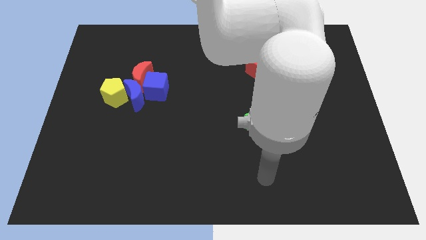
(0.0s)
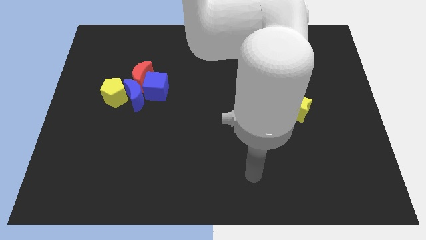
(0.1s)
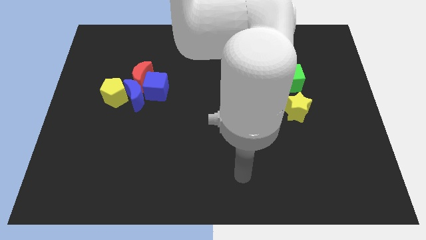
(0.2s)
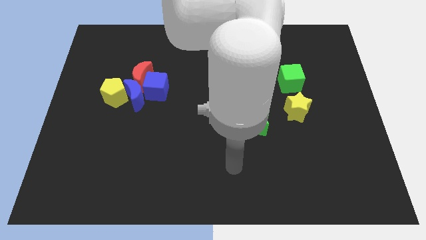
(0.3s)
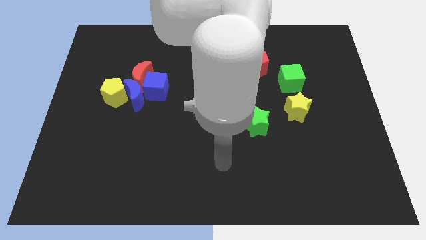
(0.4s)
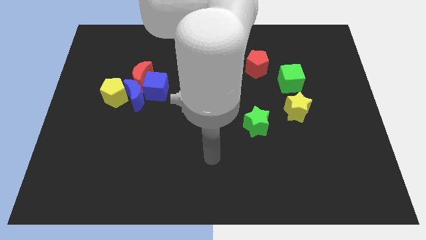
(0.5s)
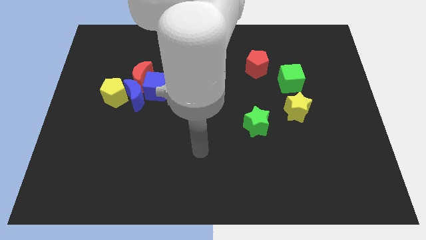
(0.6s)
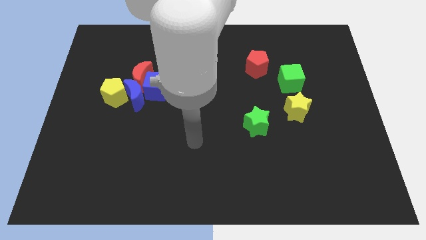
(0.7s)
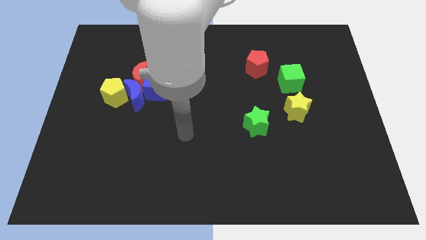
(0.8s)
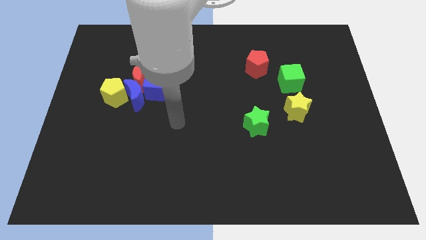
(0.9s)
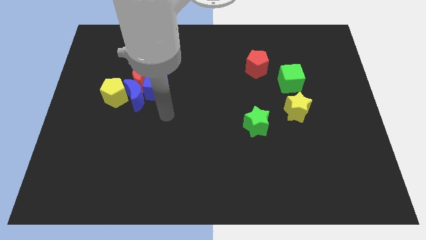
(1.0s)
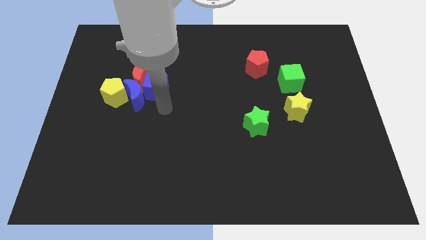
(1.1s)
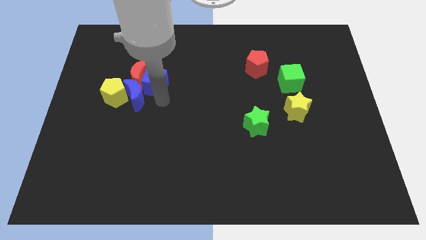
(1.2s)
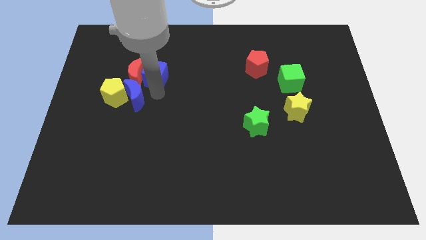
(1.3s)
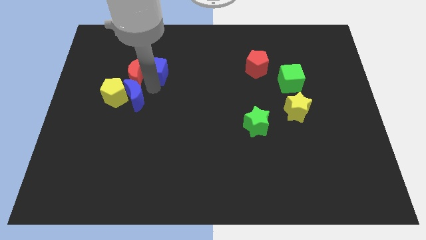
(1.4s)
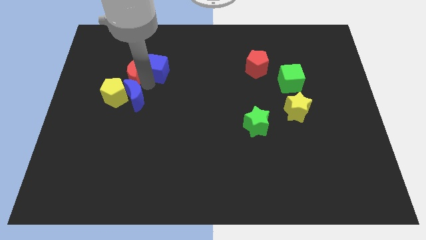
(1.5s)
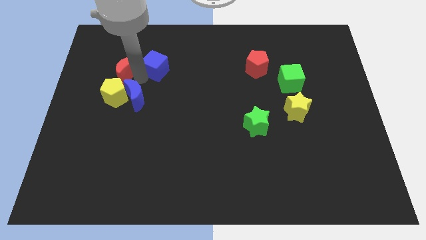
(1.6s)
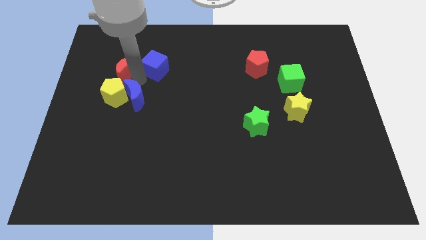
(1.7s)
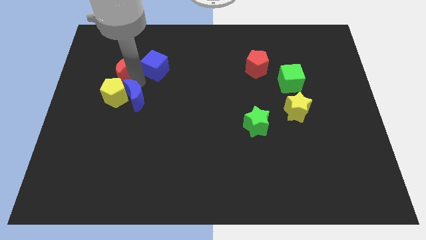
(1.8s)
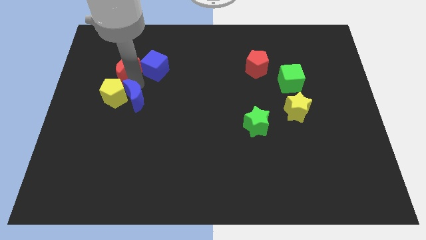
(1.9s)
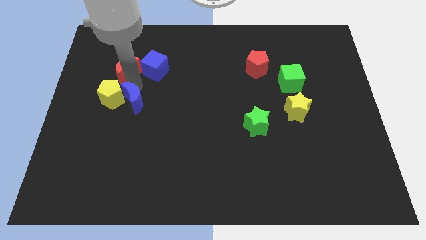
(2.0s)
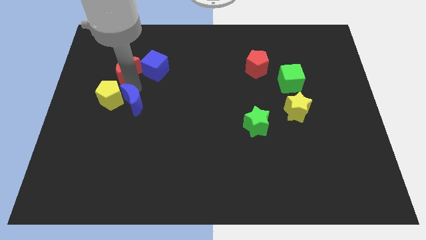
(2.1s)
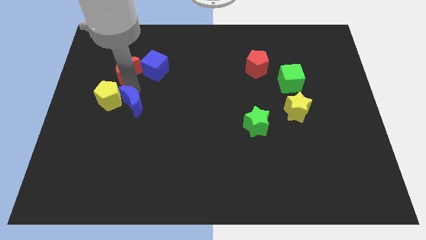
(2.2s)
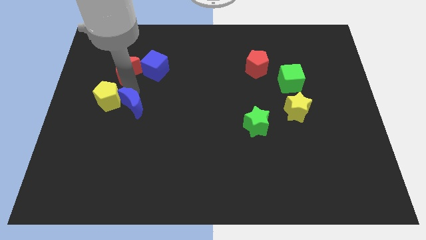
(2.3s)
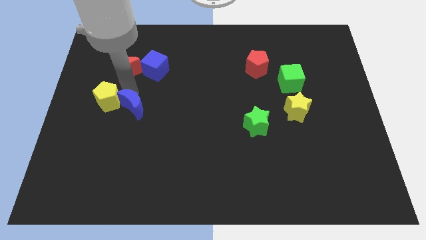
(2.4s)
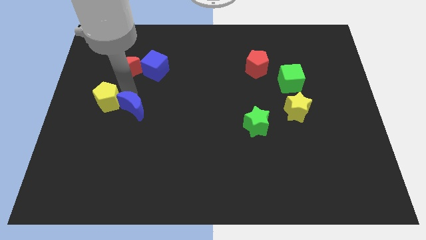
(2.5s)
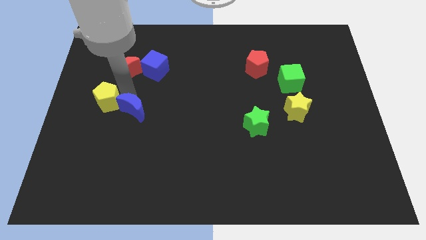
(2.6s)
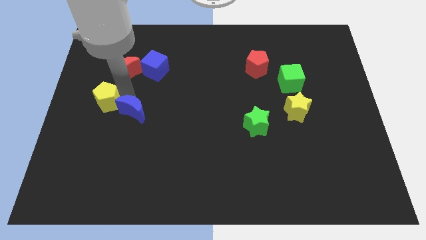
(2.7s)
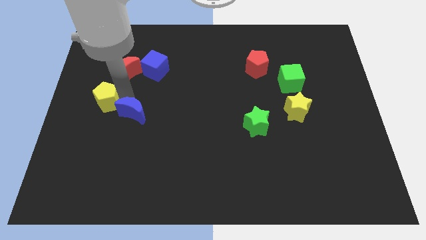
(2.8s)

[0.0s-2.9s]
pull the blue moon apart from the clump

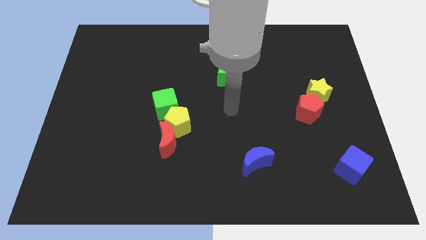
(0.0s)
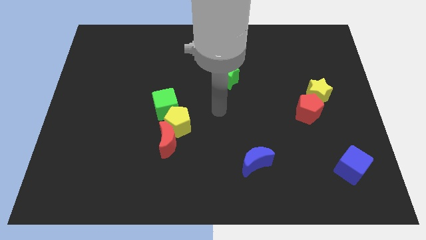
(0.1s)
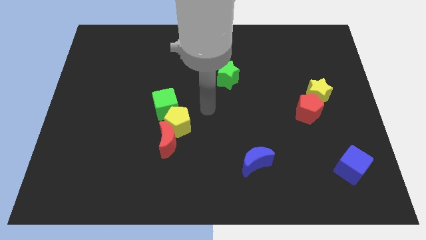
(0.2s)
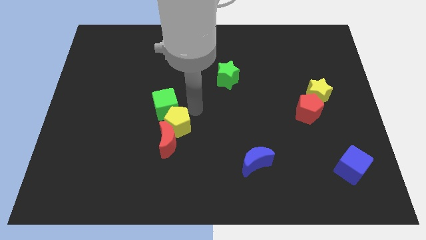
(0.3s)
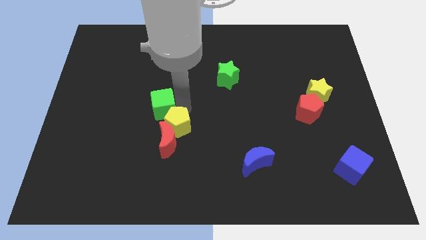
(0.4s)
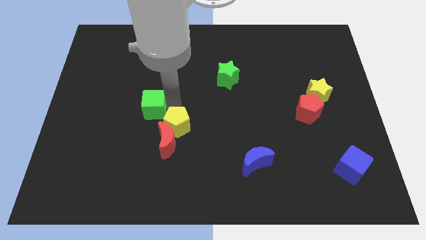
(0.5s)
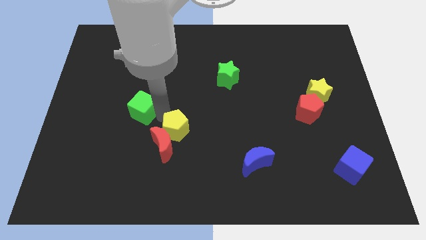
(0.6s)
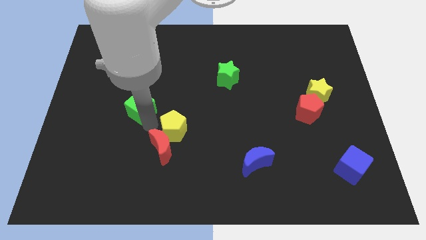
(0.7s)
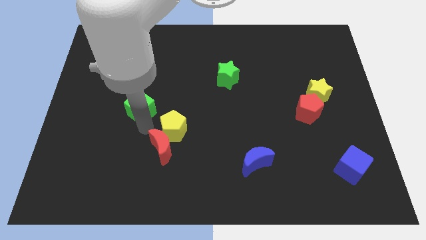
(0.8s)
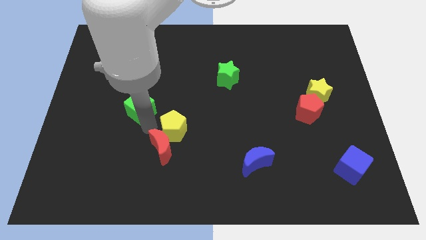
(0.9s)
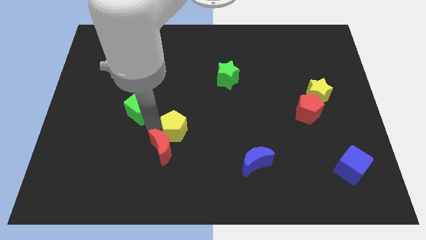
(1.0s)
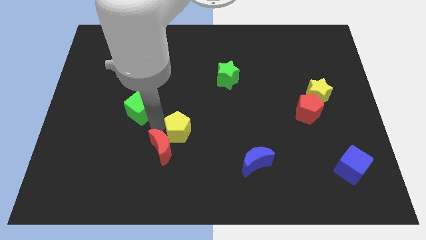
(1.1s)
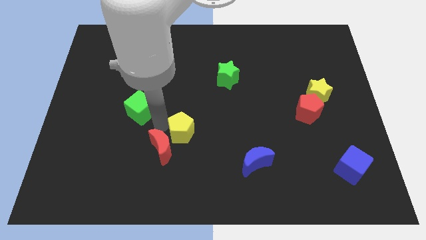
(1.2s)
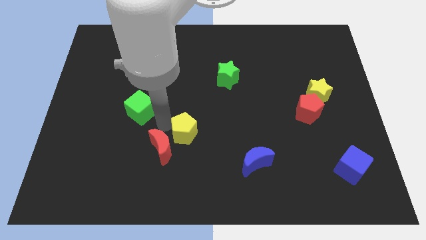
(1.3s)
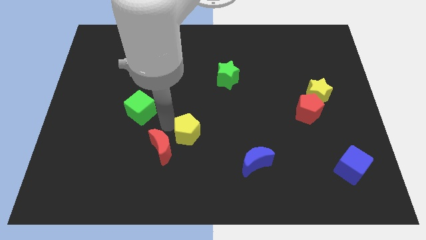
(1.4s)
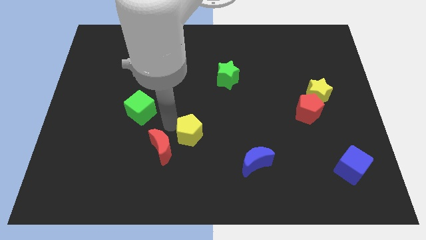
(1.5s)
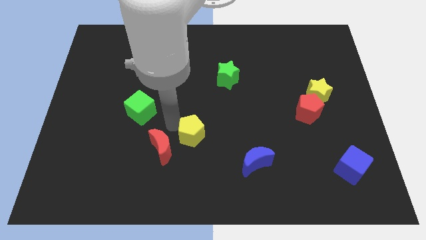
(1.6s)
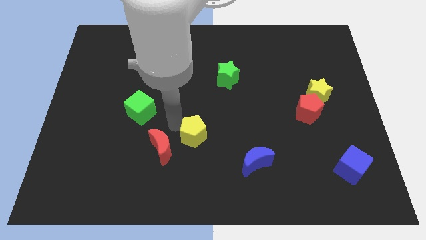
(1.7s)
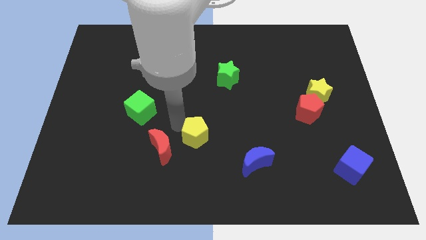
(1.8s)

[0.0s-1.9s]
separate the yellow pentagon from the red moon and green cube

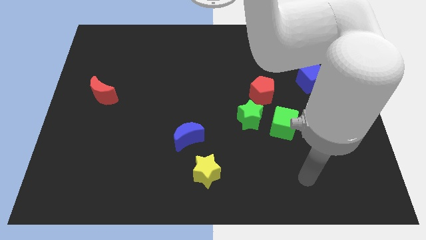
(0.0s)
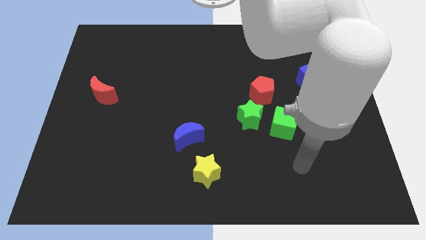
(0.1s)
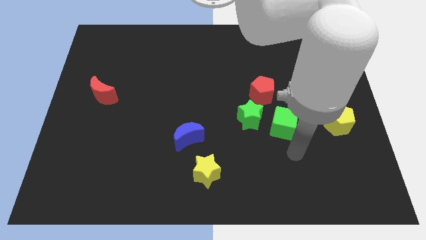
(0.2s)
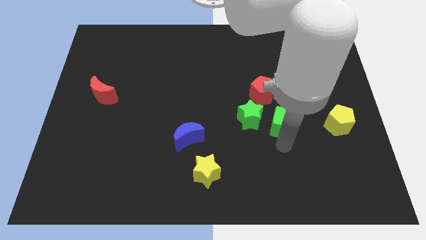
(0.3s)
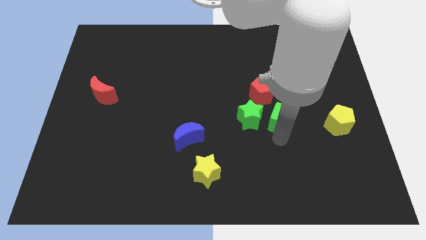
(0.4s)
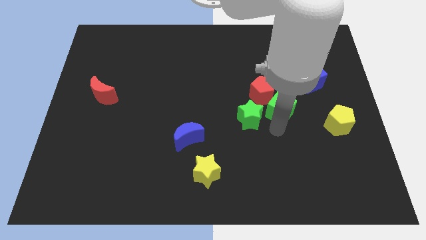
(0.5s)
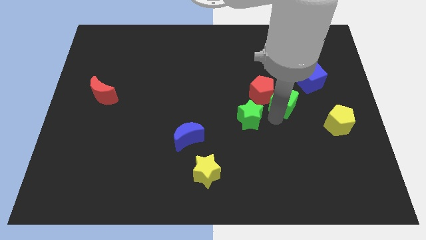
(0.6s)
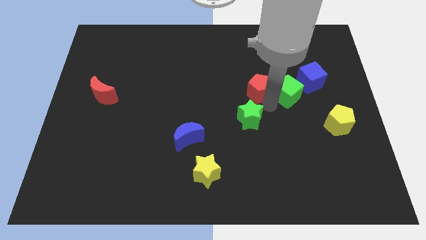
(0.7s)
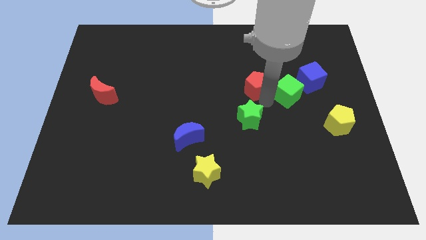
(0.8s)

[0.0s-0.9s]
move the green star away from the red pentagon and green cube

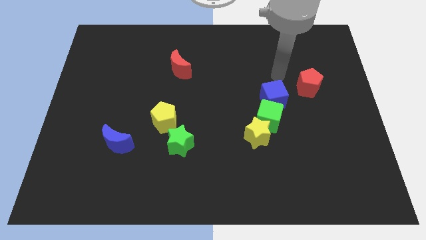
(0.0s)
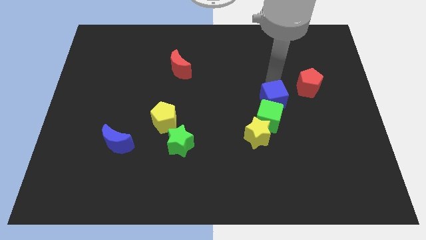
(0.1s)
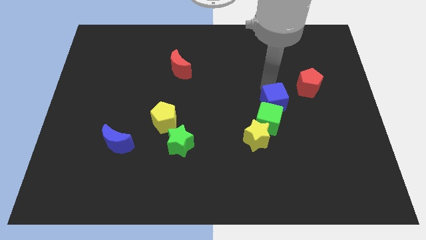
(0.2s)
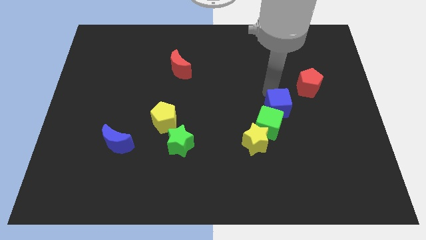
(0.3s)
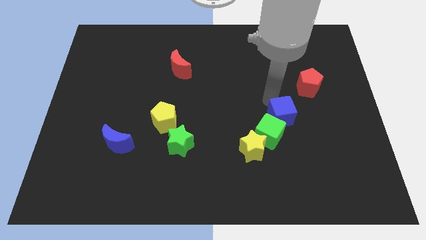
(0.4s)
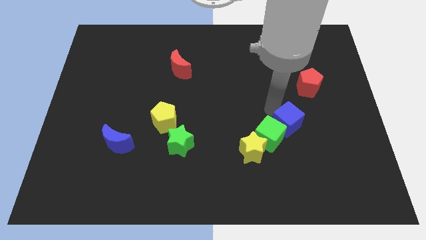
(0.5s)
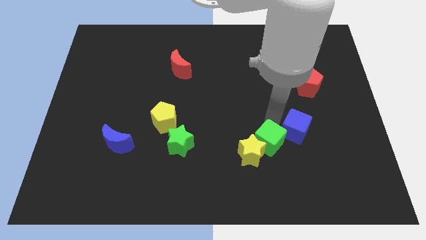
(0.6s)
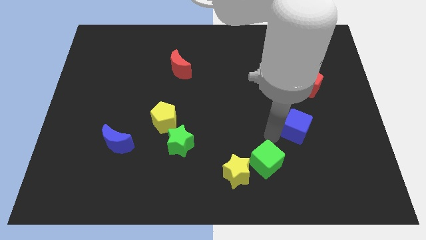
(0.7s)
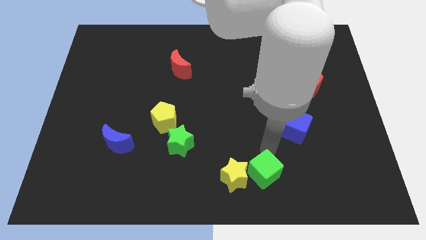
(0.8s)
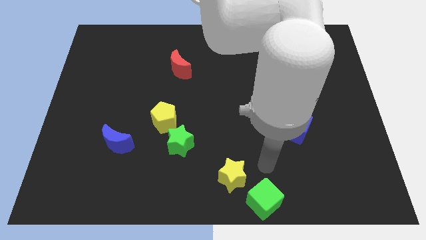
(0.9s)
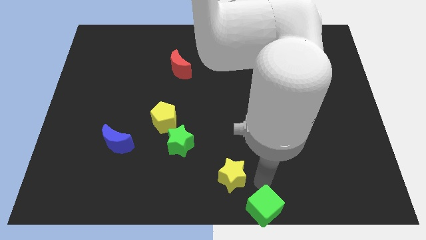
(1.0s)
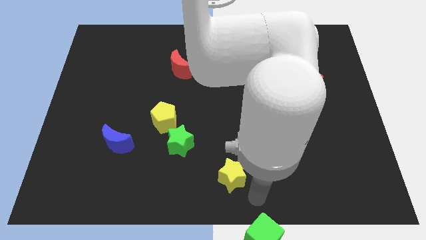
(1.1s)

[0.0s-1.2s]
pull the yellow star apart from the green cube

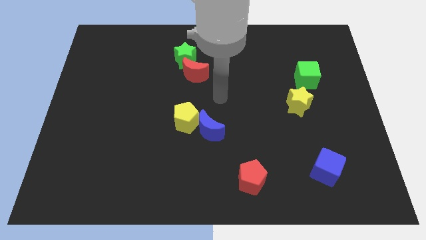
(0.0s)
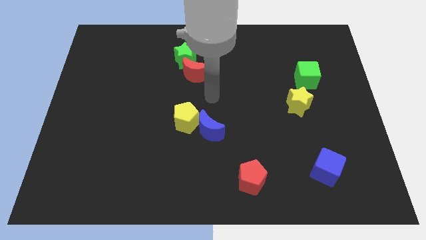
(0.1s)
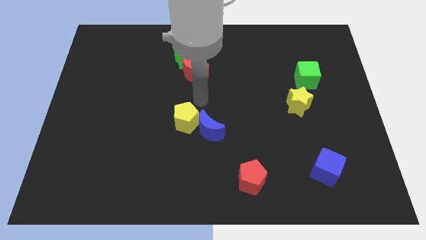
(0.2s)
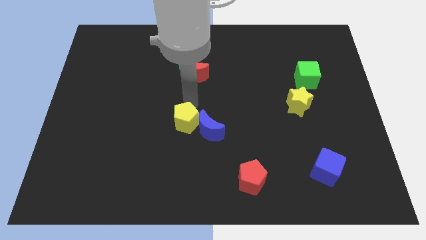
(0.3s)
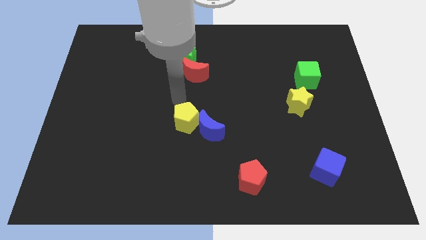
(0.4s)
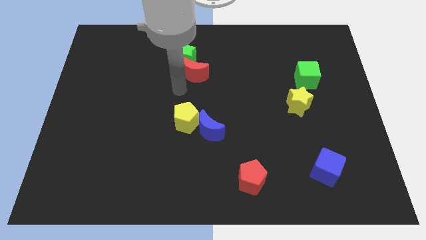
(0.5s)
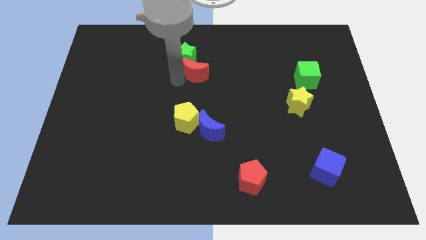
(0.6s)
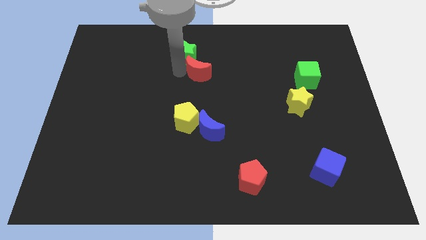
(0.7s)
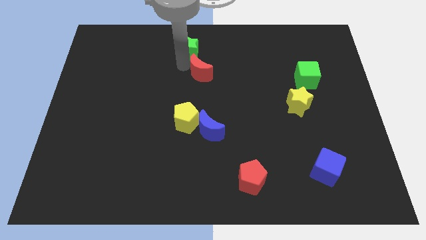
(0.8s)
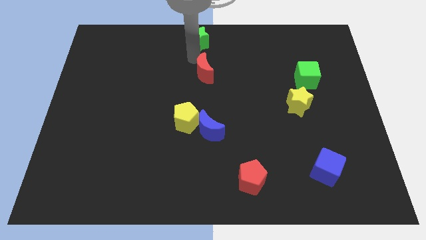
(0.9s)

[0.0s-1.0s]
separate the red moon from the green star

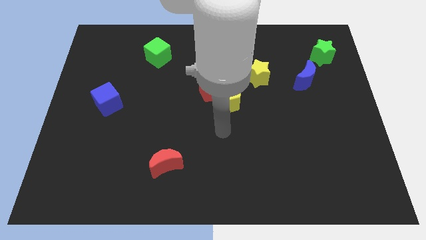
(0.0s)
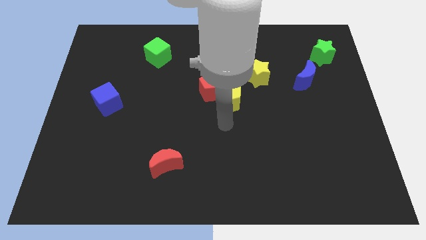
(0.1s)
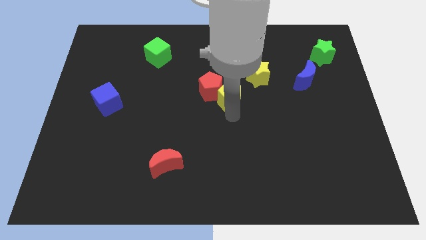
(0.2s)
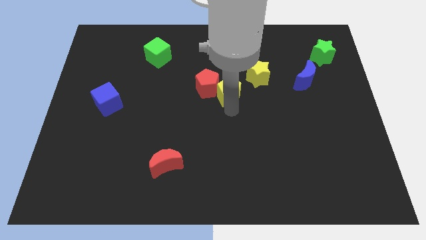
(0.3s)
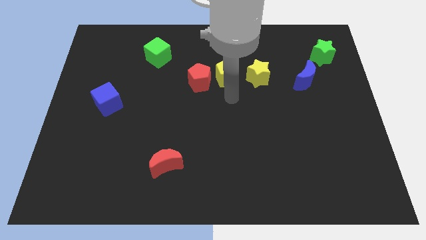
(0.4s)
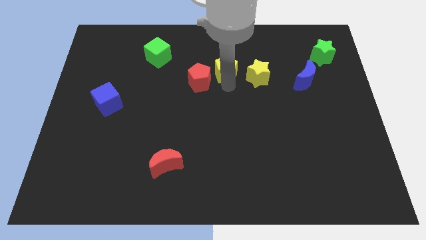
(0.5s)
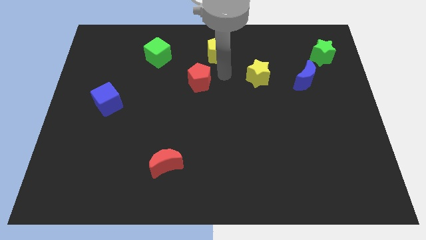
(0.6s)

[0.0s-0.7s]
separate the red pentagon from the yellow pentagon

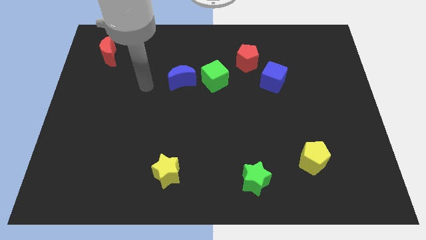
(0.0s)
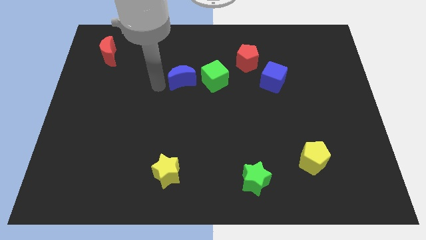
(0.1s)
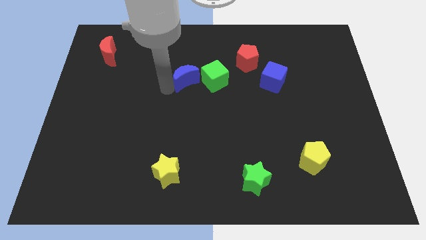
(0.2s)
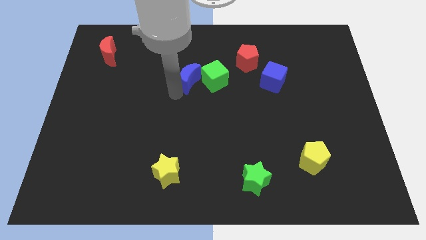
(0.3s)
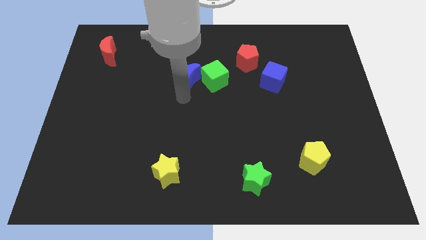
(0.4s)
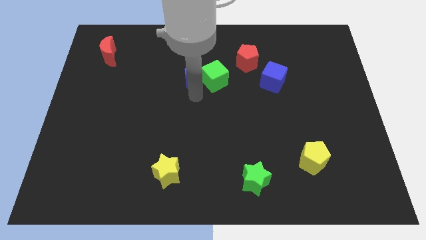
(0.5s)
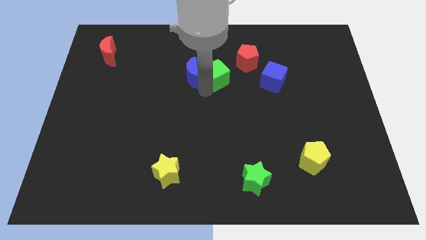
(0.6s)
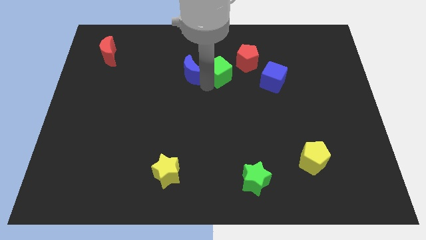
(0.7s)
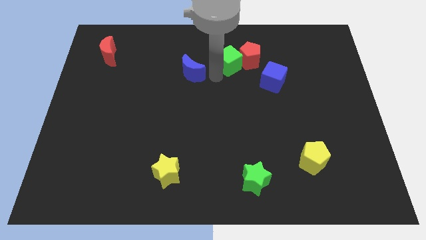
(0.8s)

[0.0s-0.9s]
separate the blue moon from the green cube

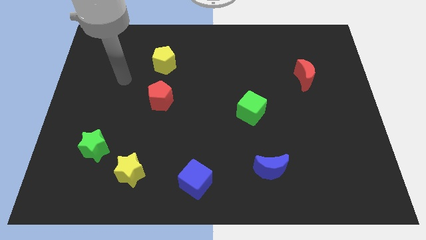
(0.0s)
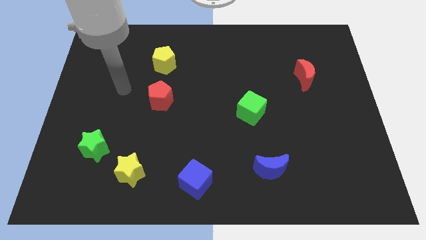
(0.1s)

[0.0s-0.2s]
separate the green star from the yellow star
